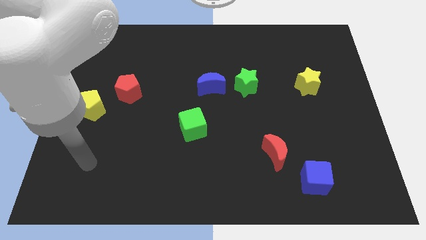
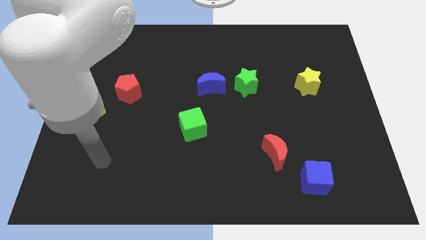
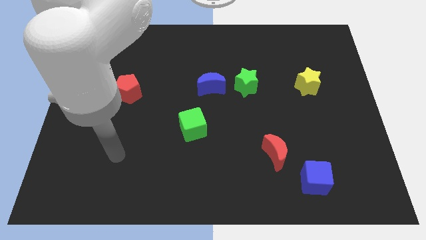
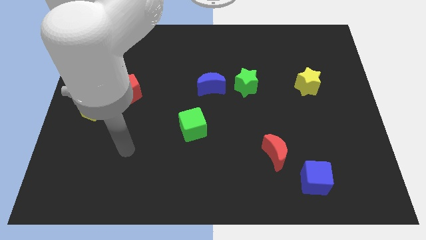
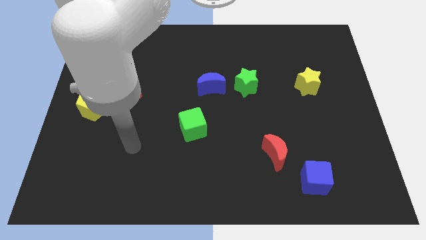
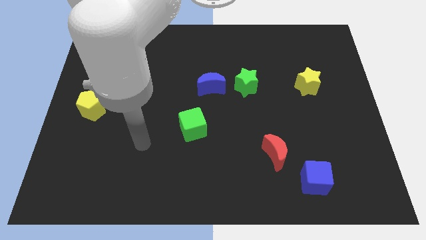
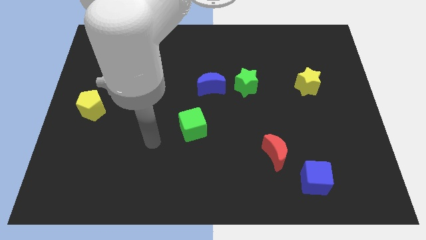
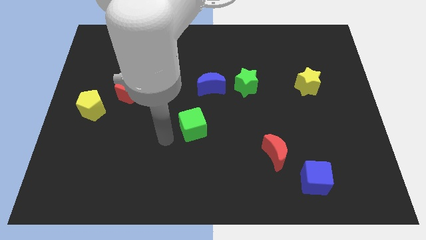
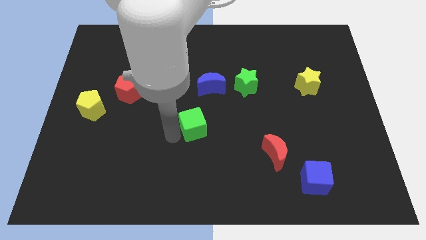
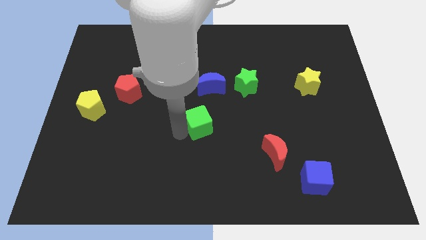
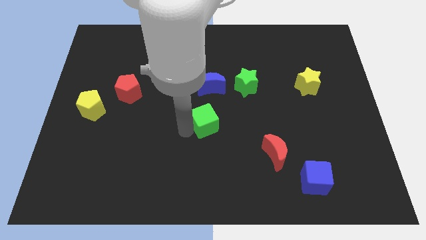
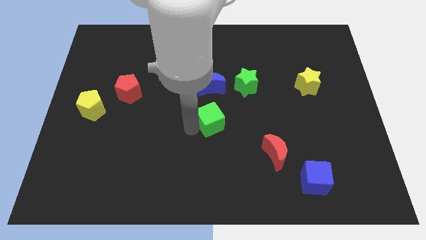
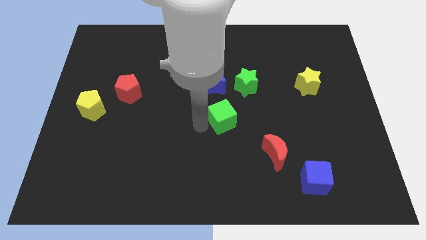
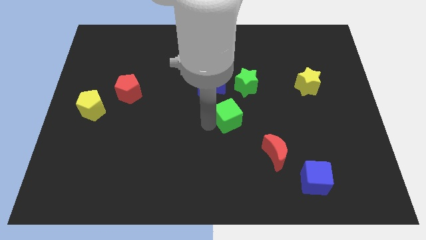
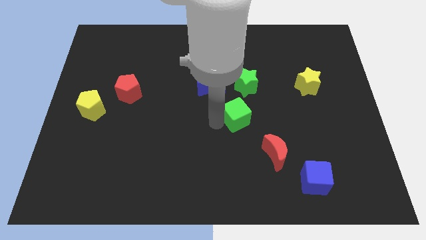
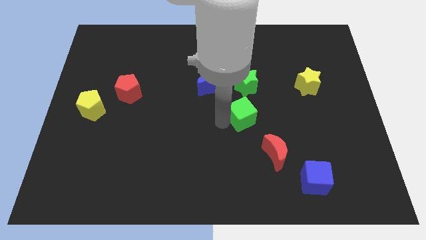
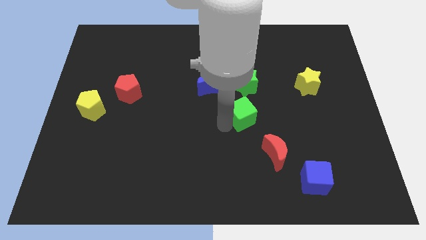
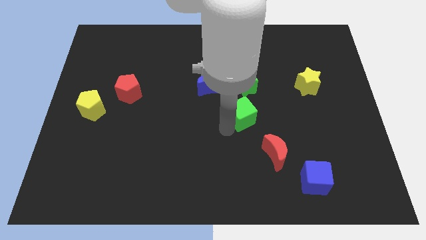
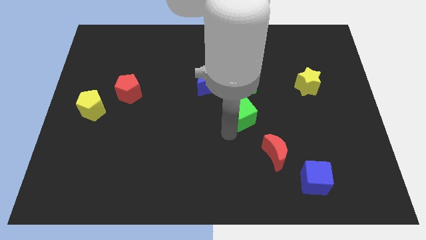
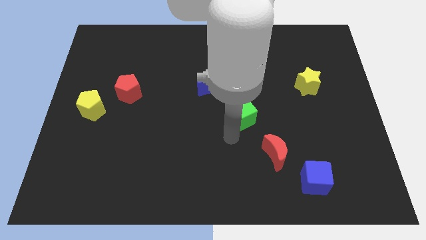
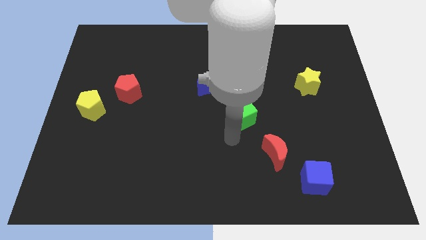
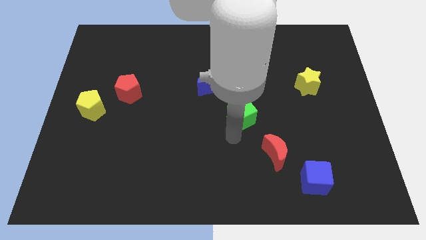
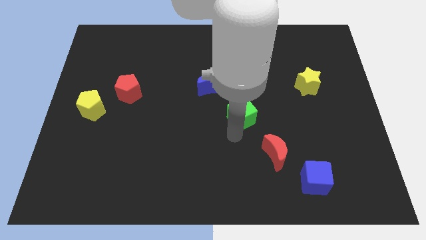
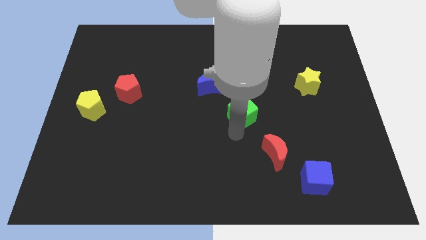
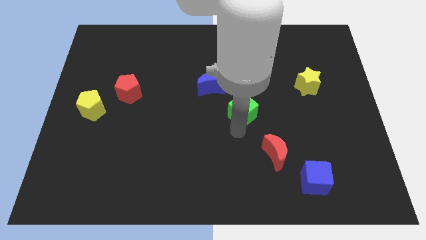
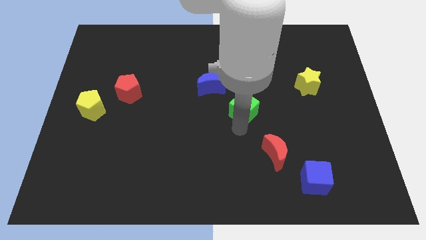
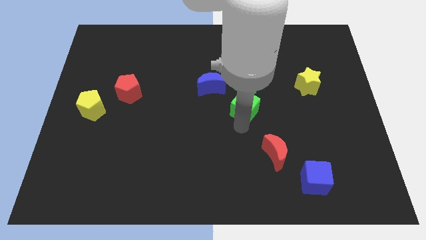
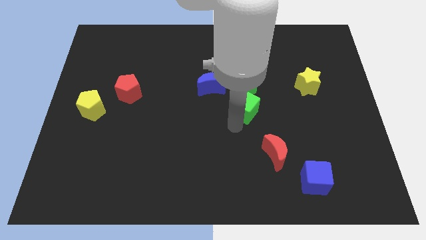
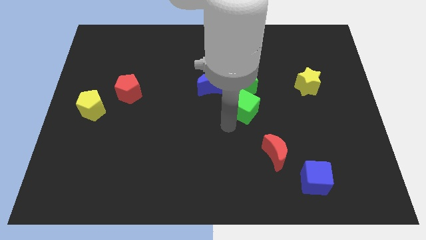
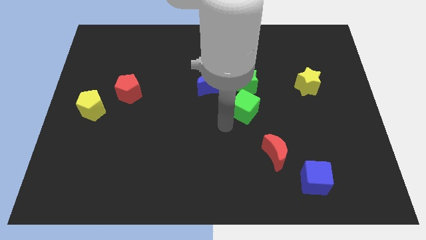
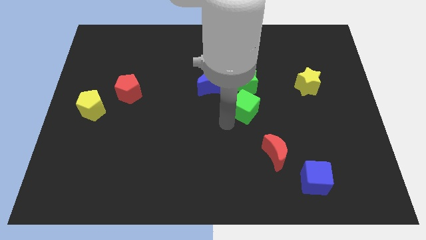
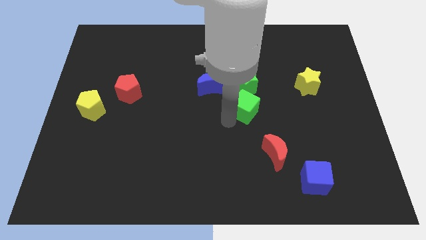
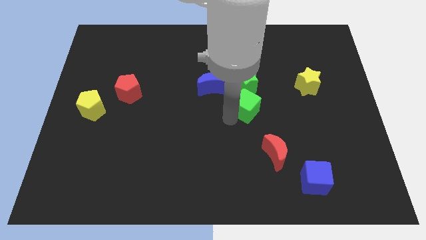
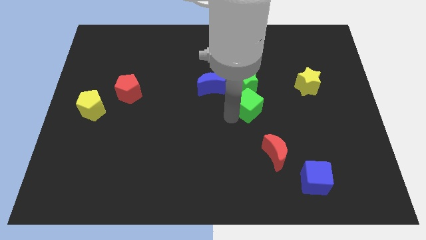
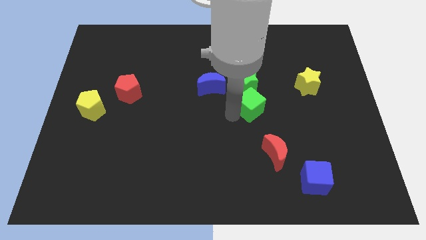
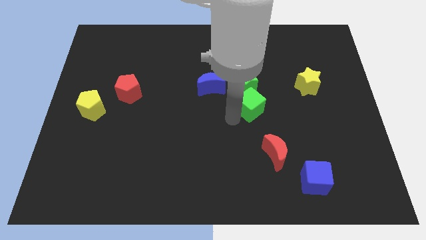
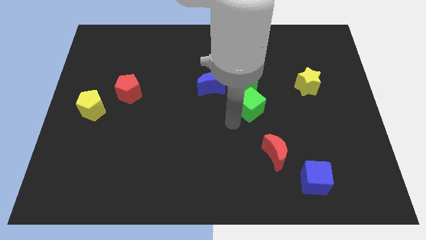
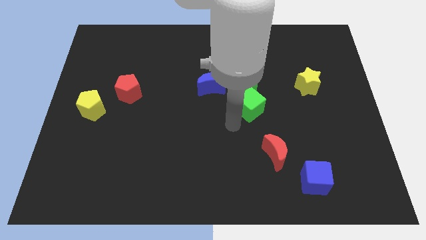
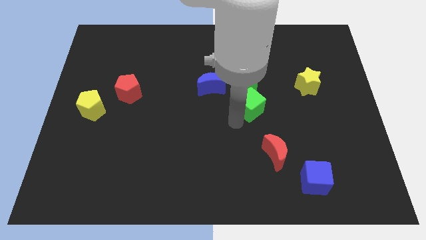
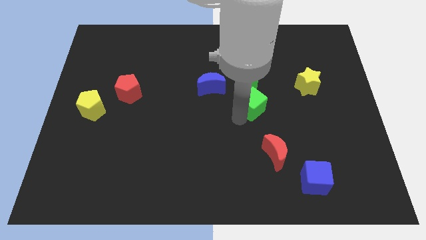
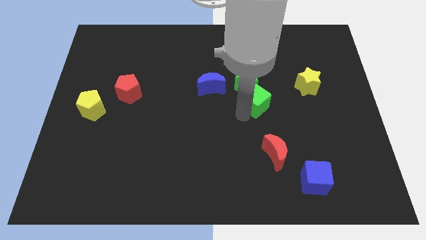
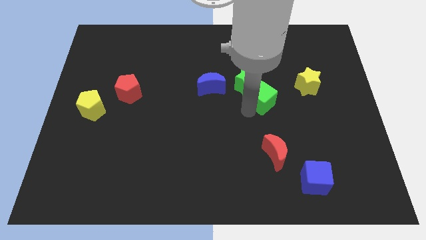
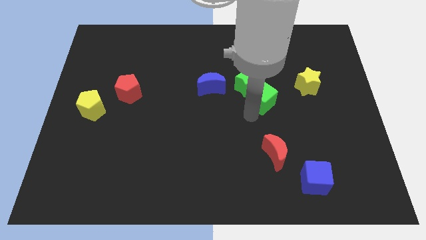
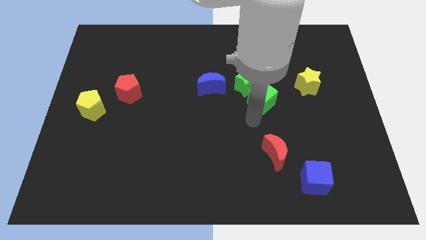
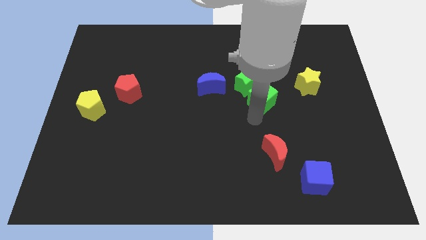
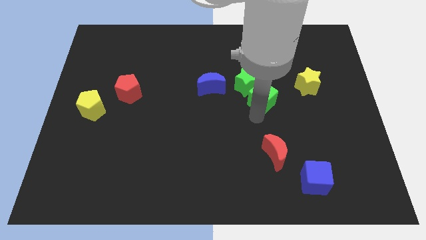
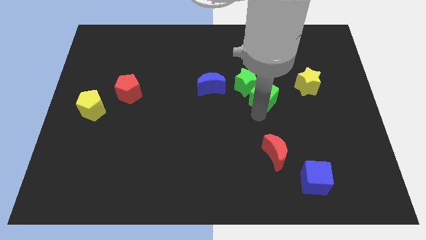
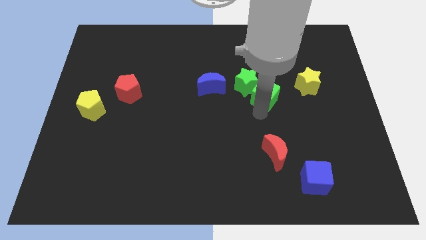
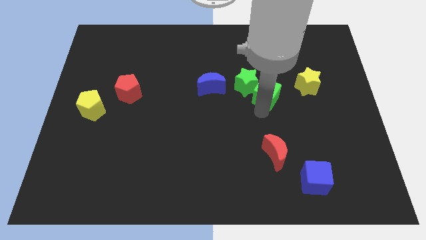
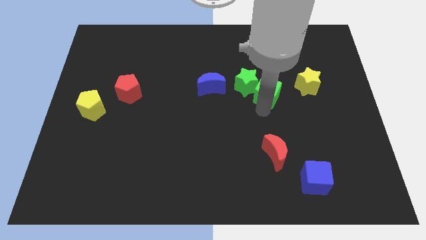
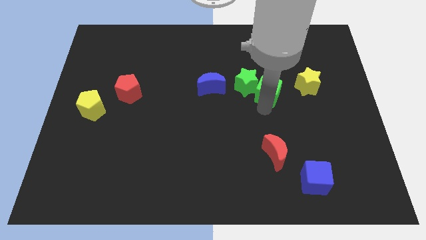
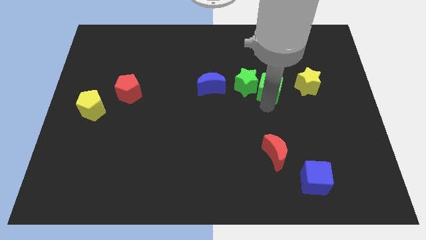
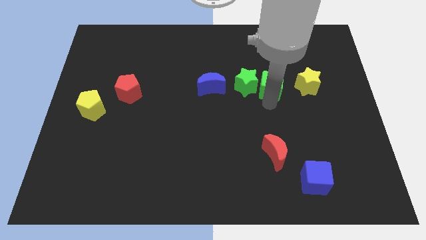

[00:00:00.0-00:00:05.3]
move the green cube diagonally up and right

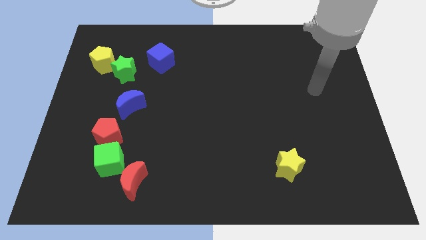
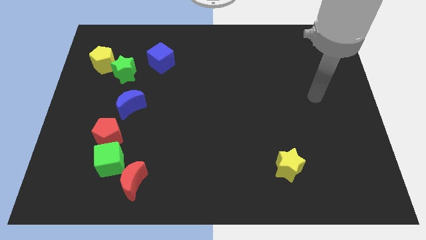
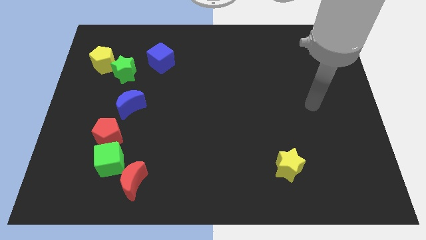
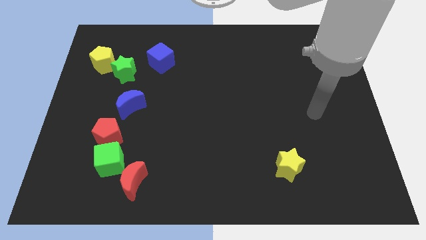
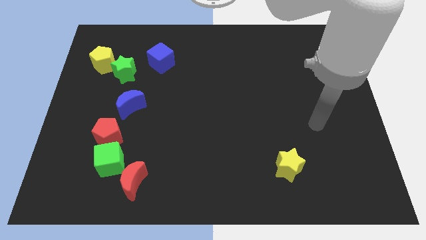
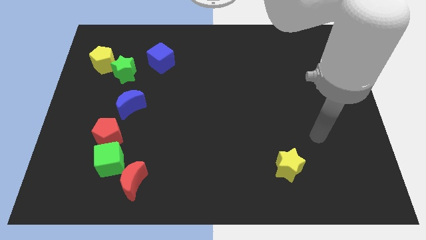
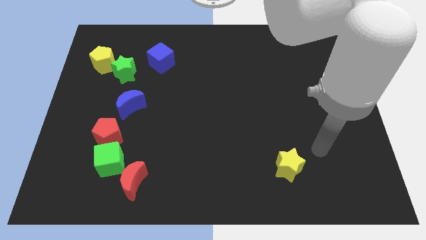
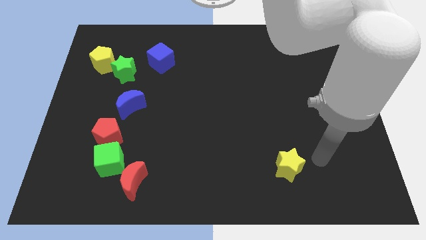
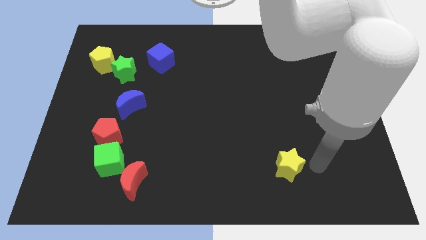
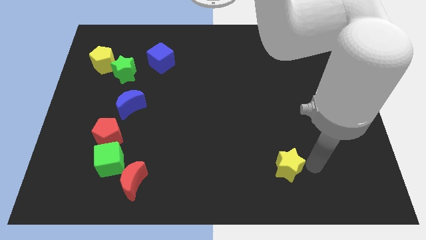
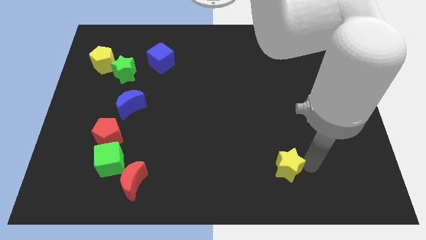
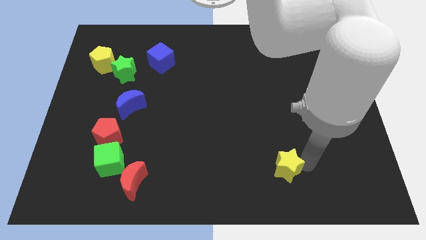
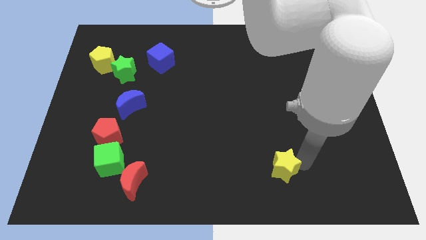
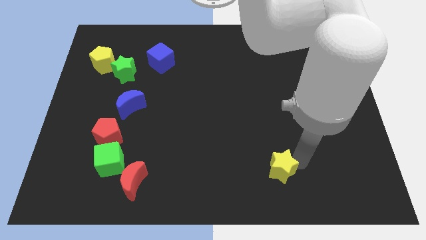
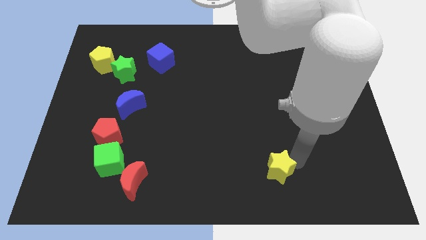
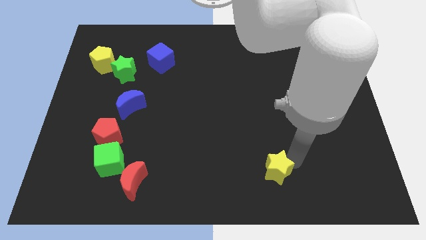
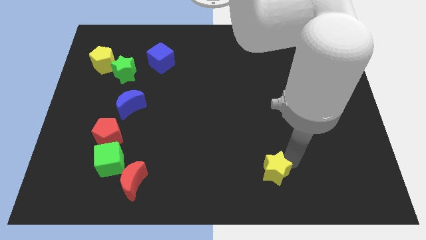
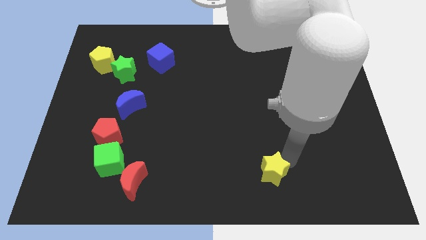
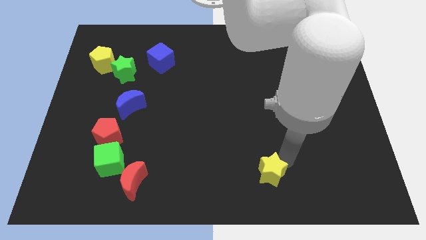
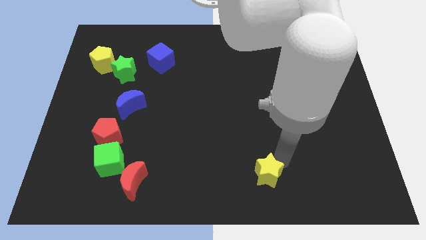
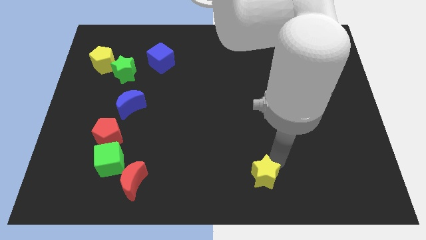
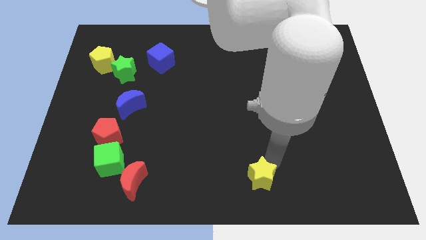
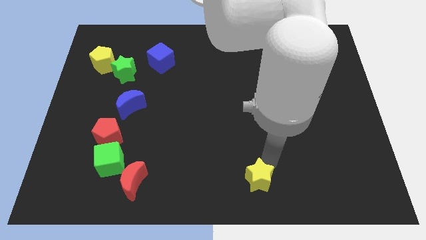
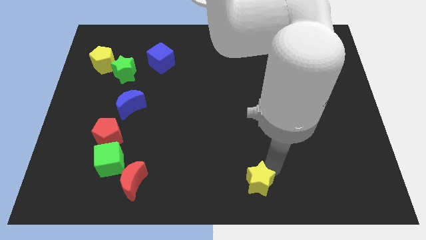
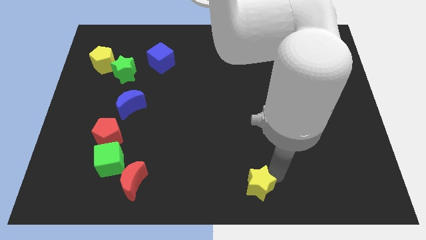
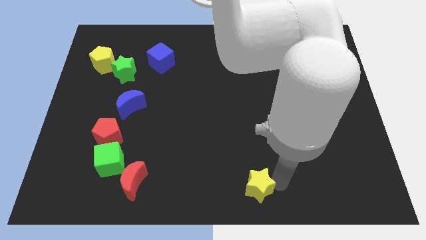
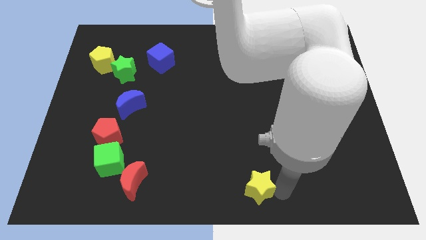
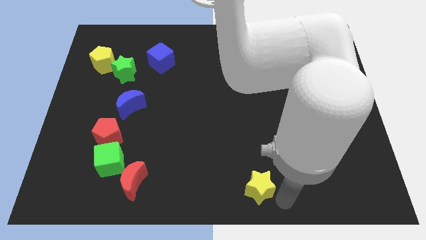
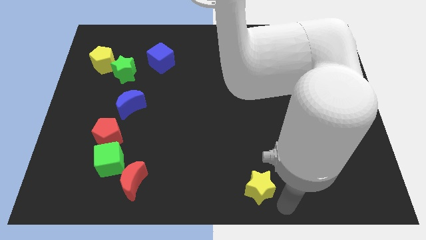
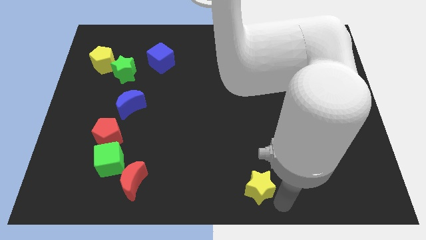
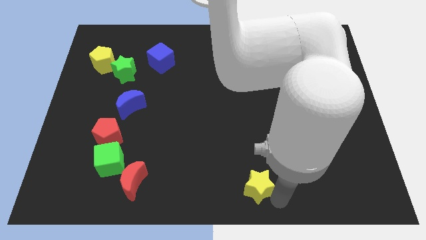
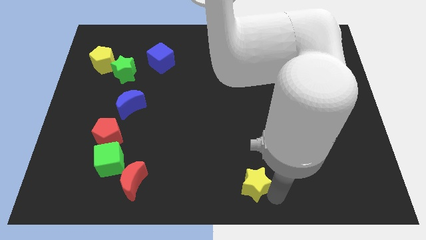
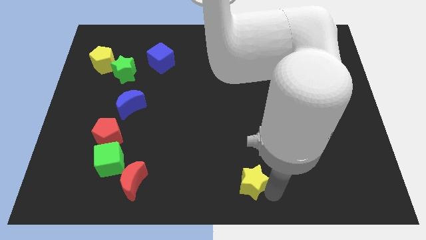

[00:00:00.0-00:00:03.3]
slide the yellow star to the left a little
